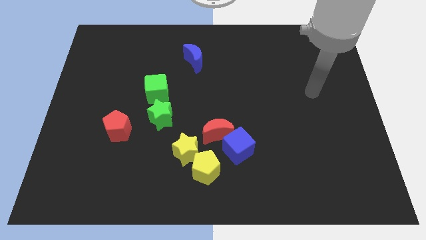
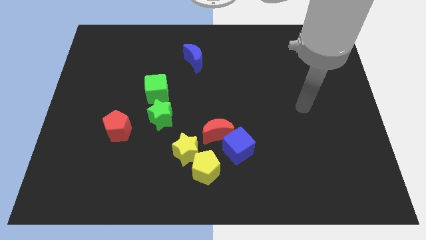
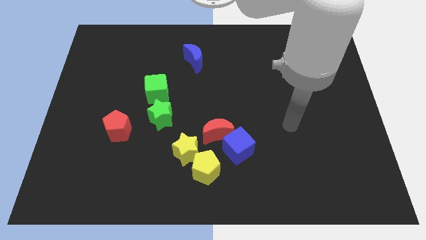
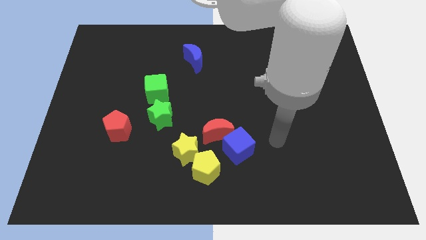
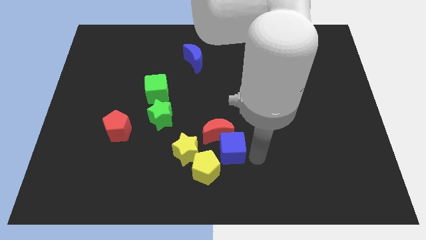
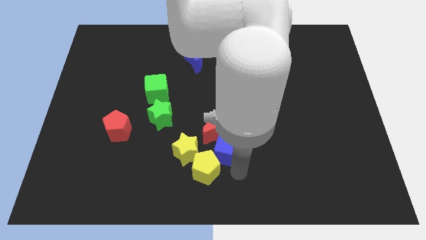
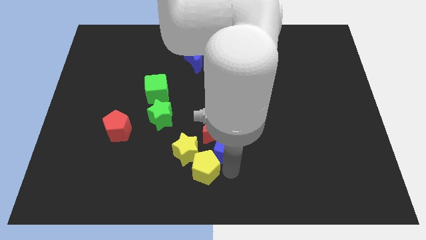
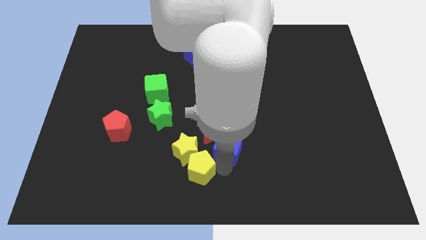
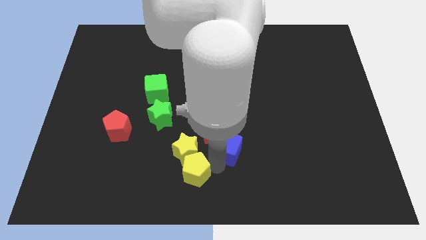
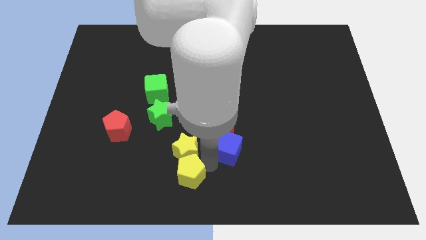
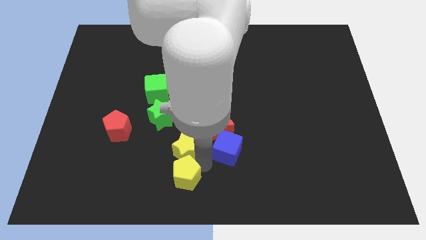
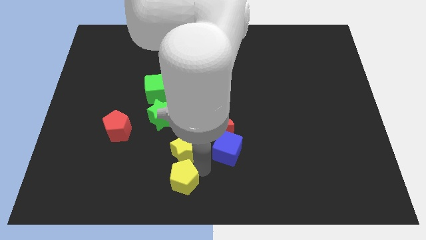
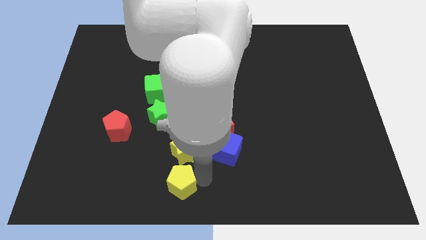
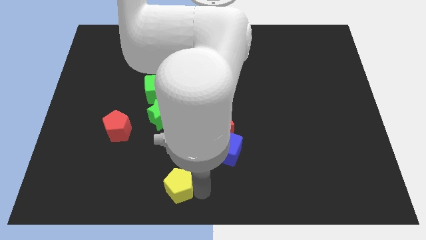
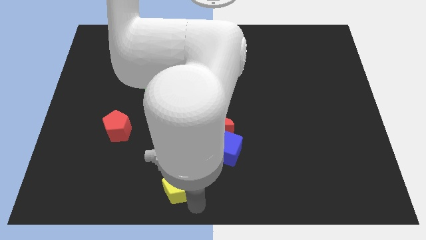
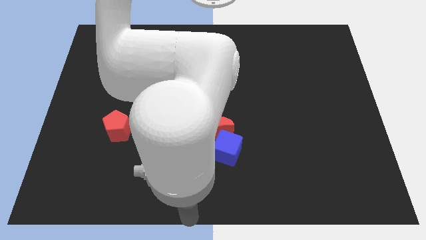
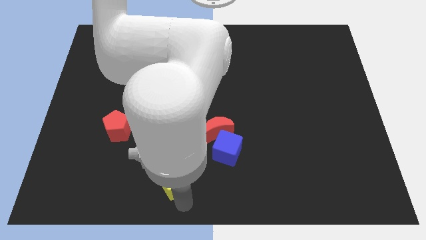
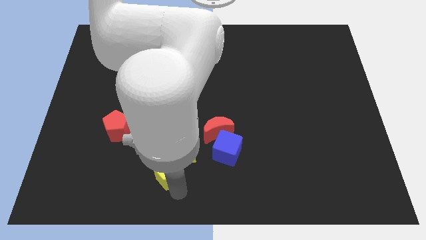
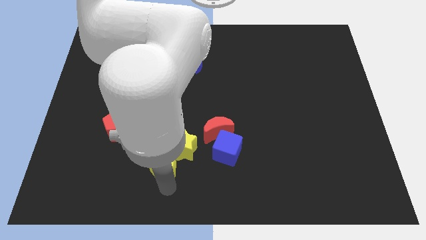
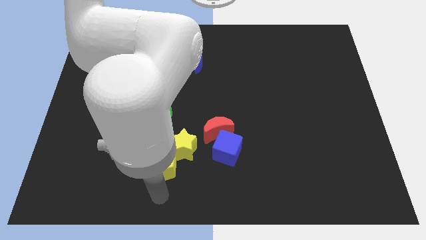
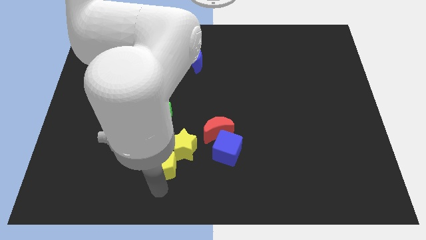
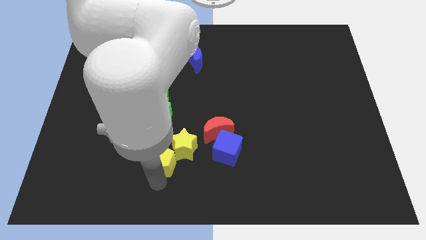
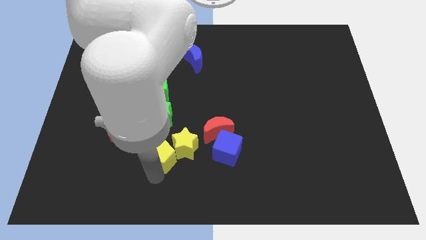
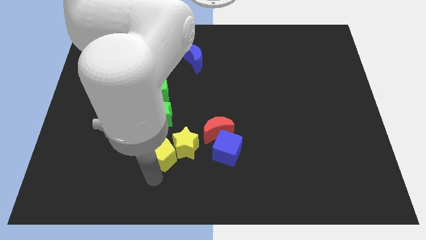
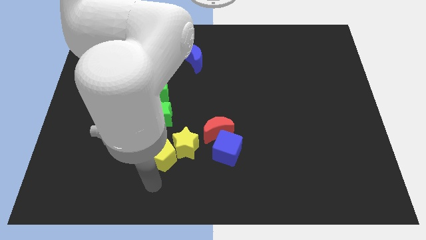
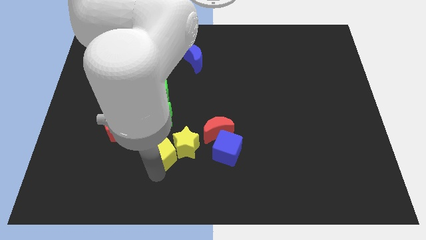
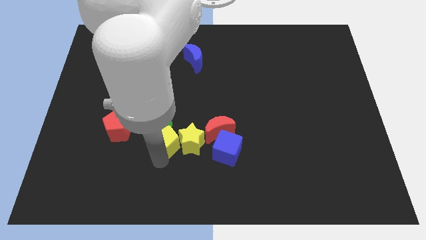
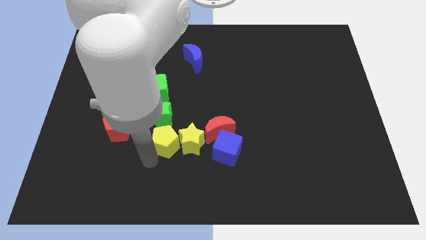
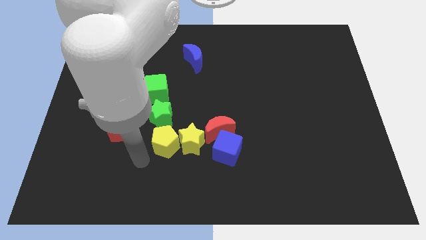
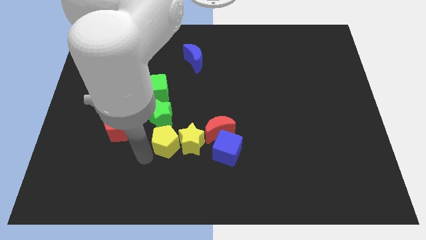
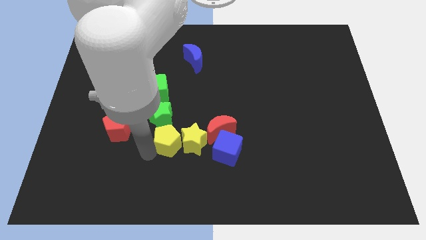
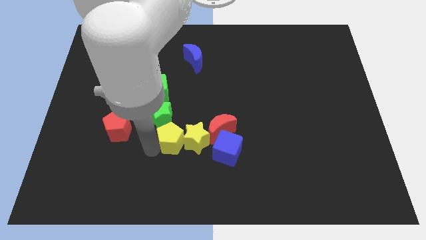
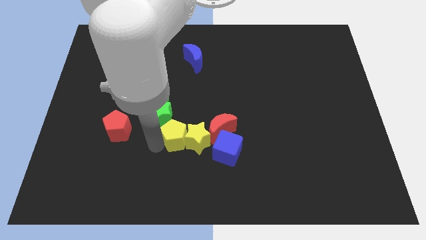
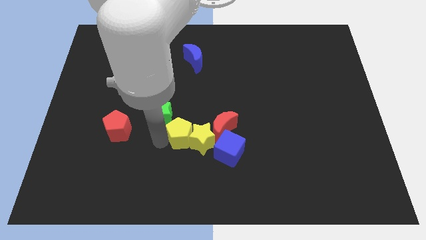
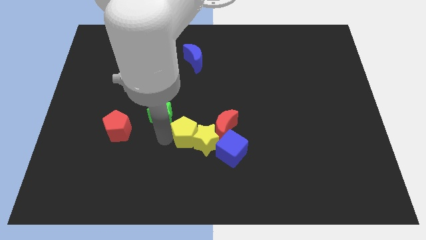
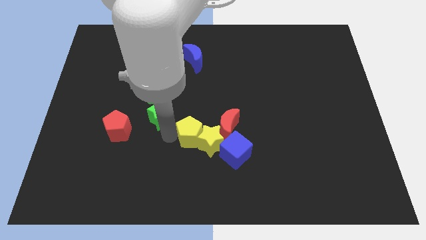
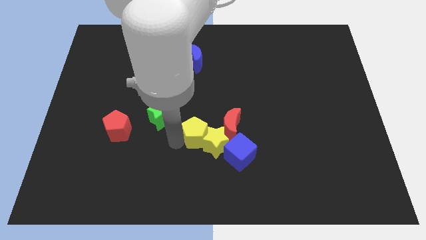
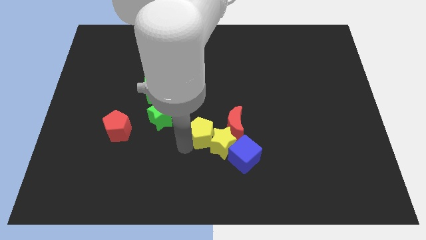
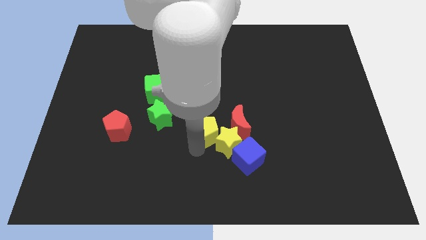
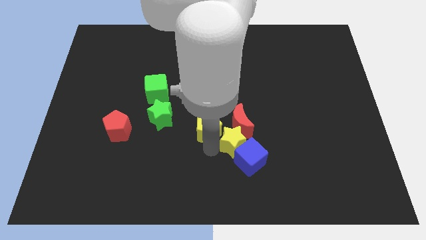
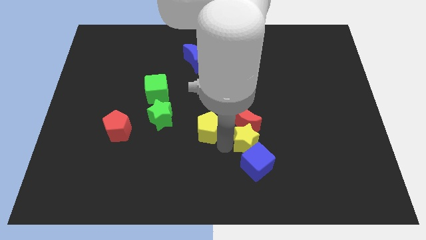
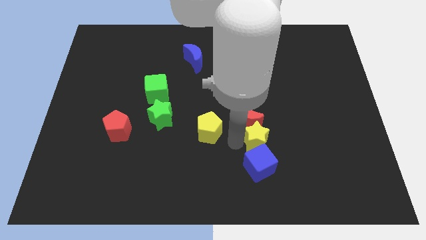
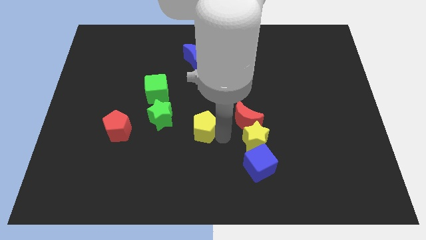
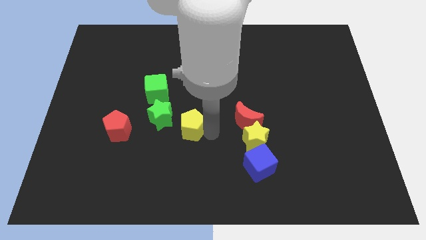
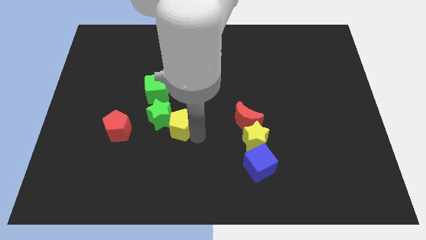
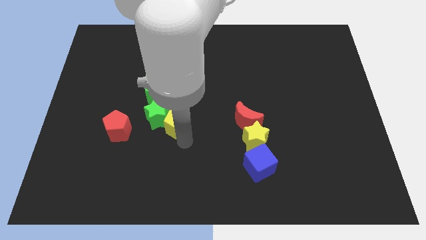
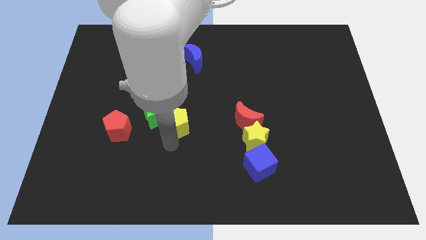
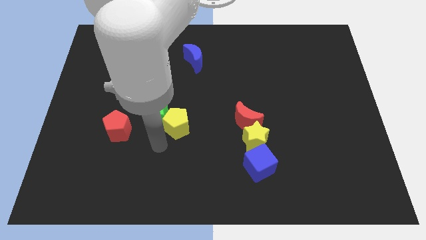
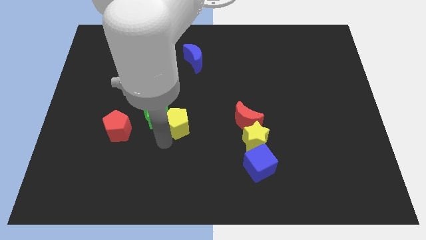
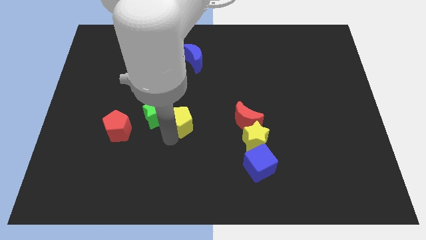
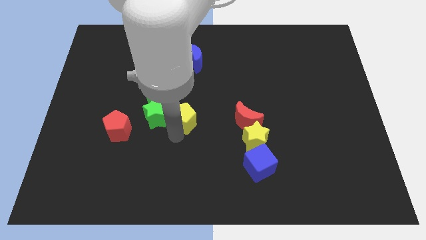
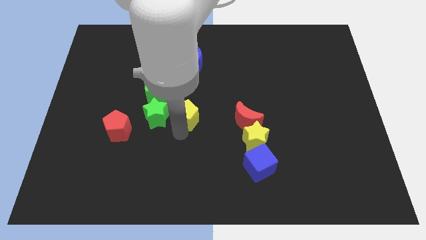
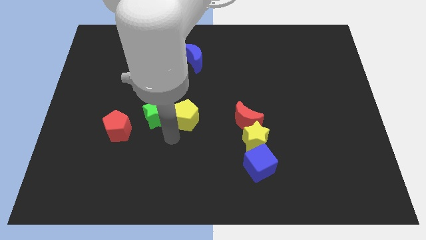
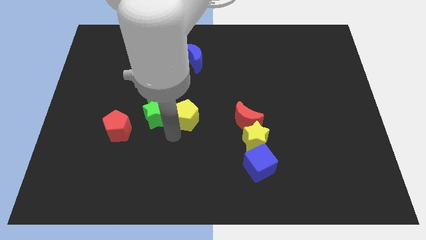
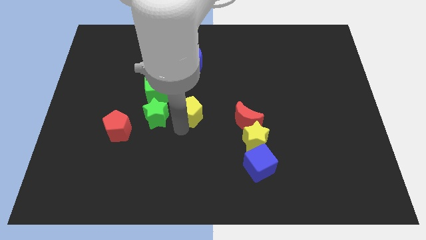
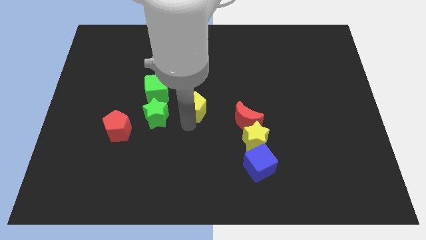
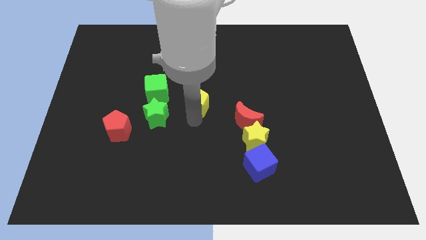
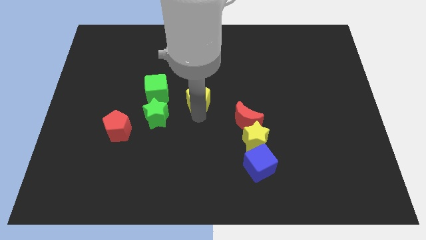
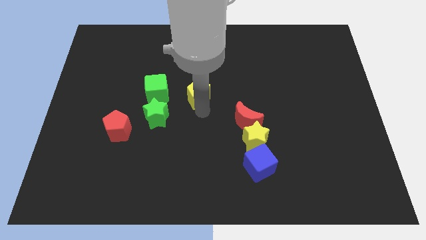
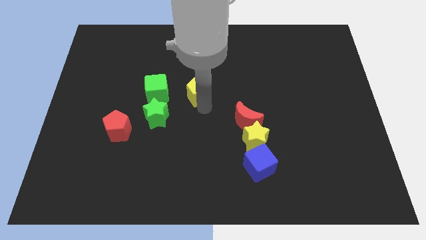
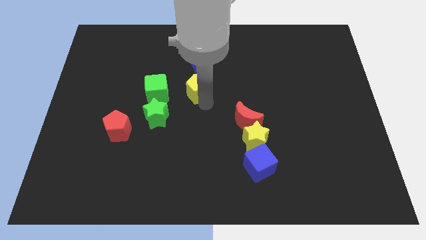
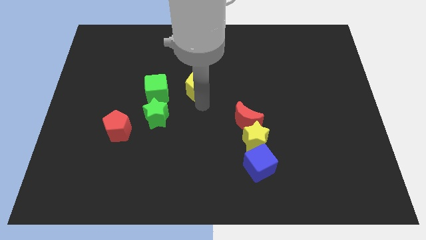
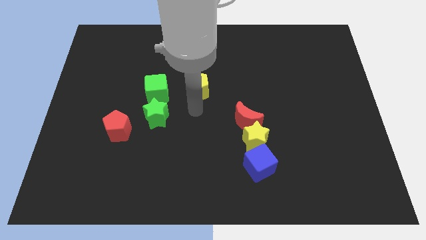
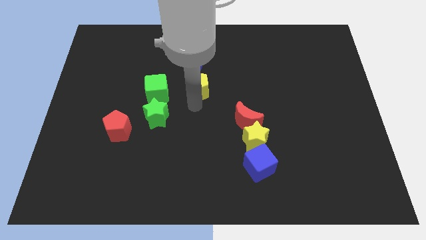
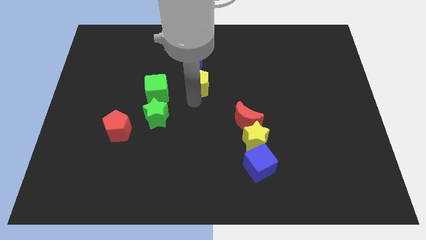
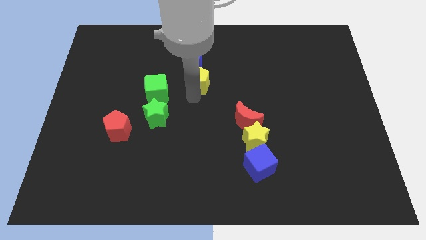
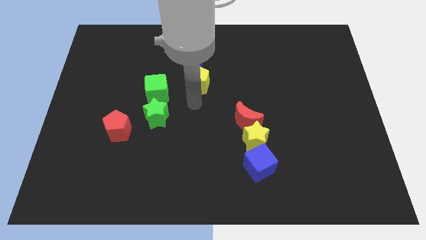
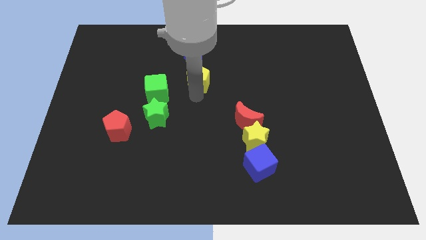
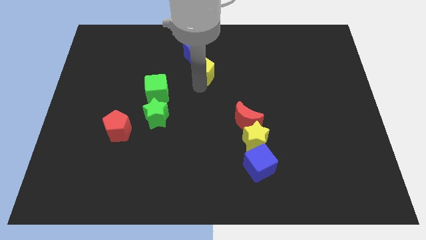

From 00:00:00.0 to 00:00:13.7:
slide the yellow pentagon close to the blue moon

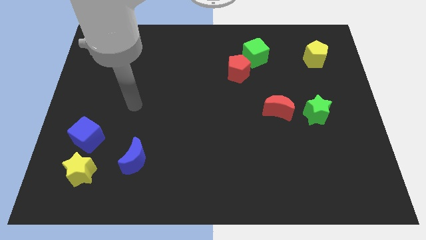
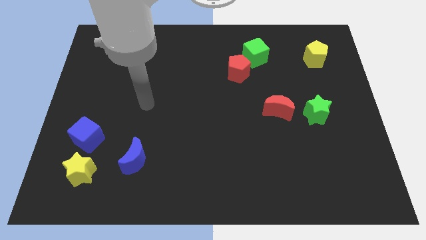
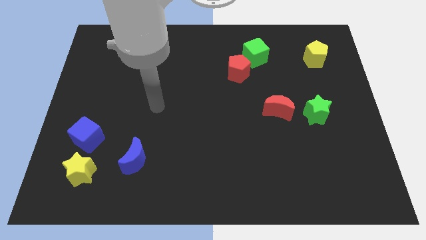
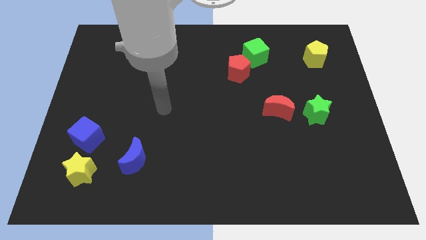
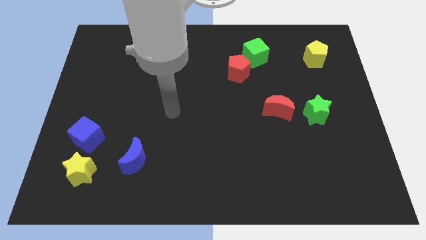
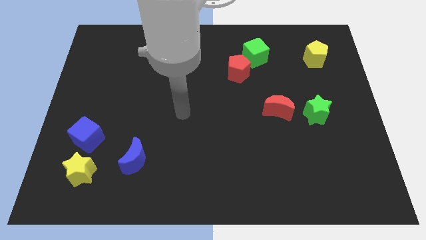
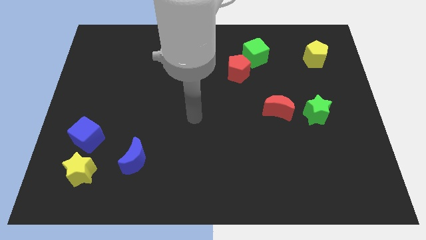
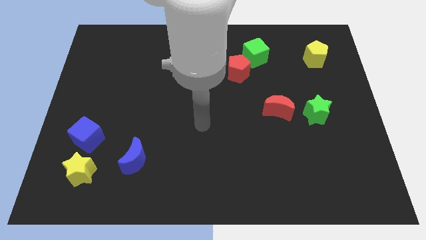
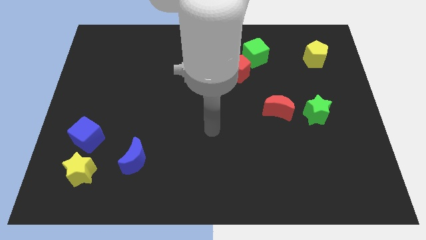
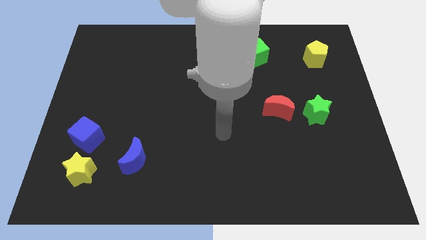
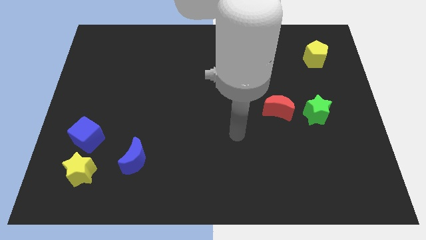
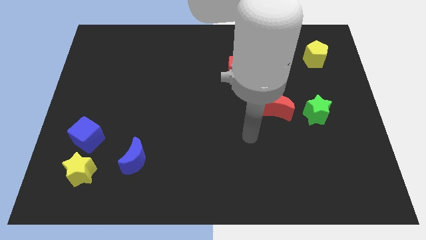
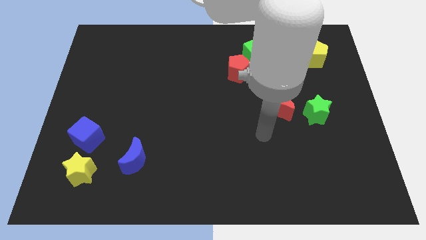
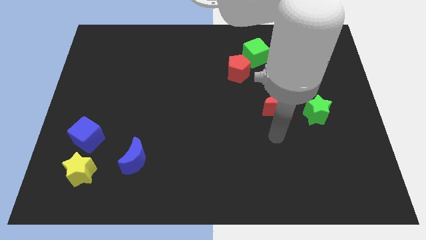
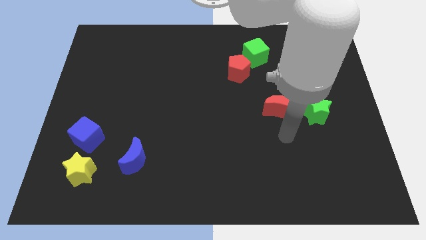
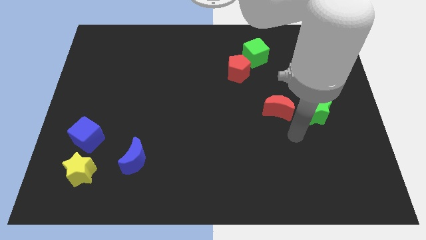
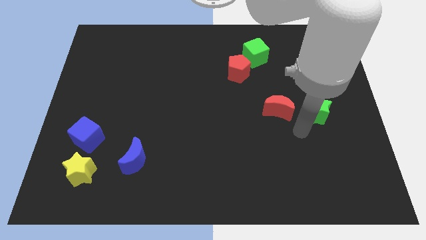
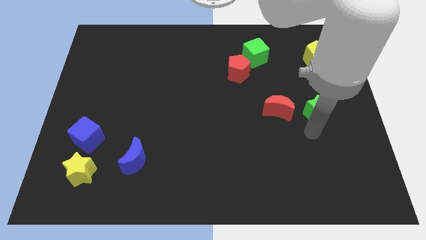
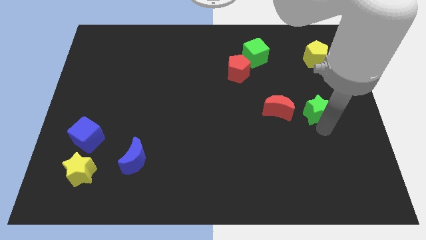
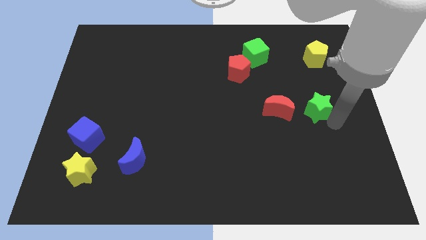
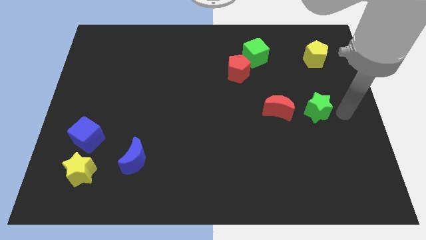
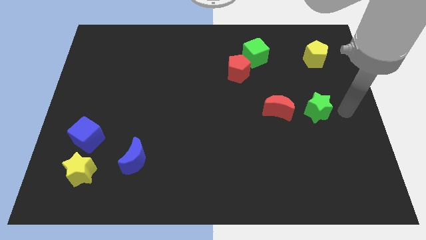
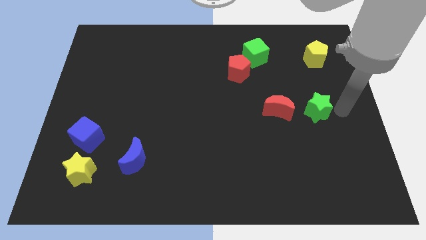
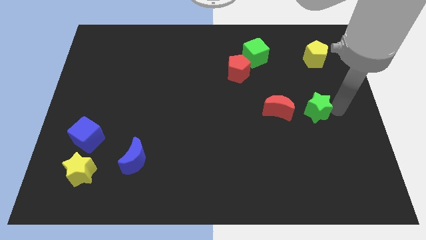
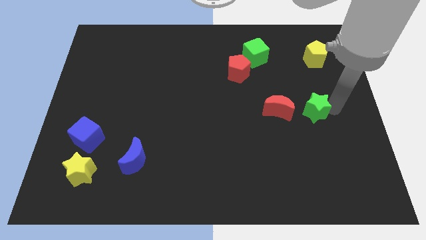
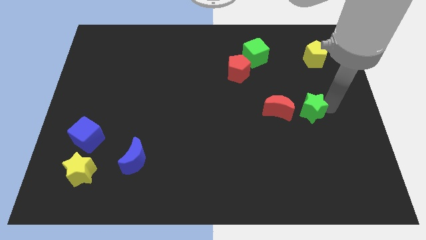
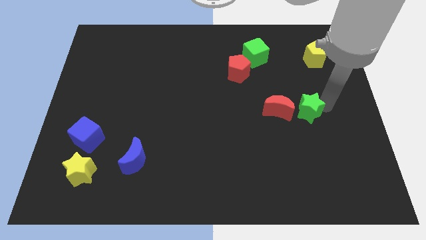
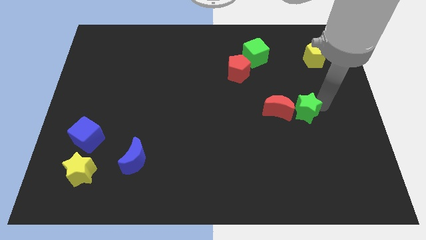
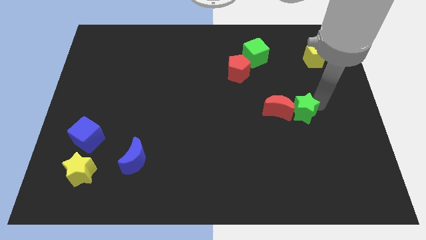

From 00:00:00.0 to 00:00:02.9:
put the green star to the red moon
